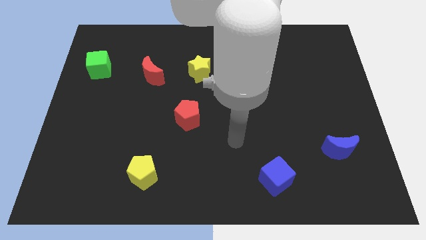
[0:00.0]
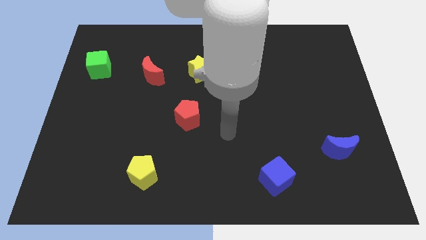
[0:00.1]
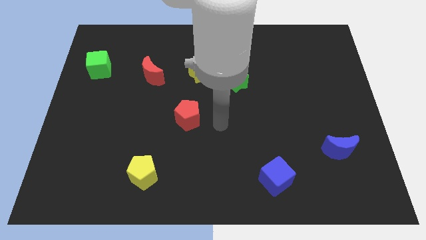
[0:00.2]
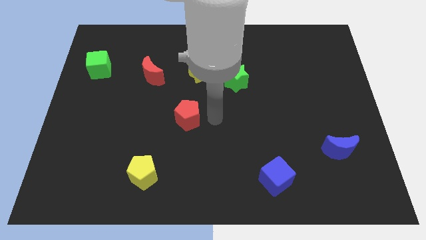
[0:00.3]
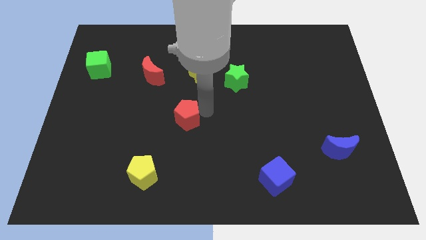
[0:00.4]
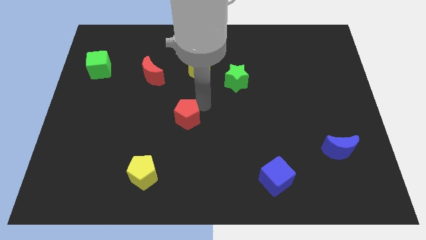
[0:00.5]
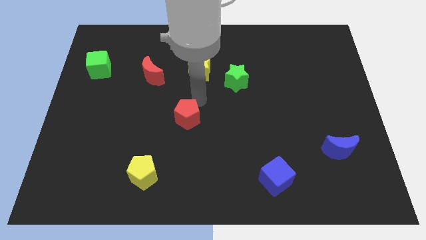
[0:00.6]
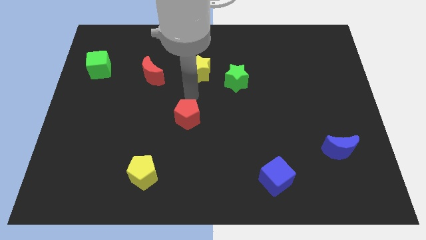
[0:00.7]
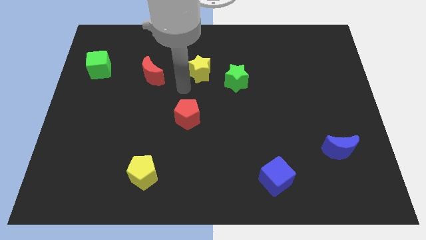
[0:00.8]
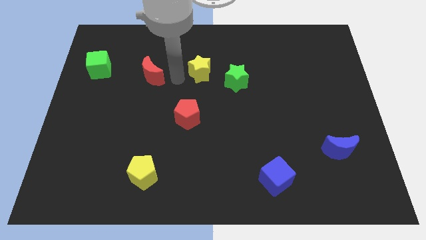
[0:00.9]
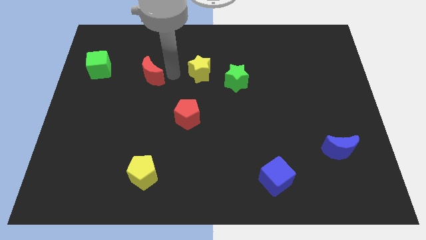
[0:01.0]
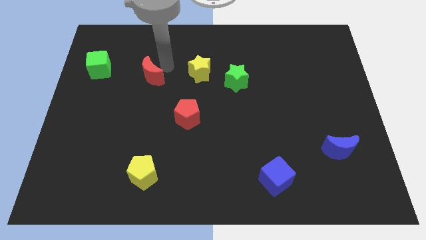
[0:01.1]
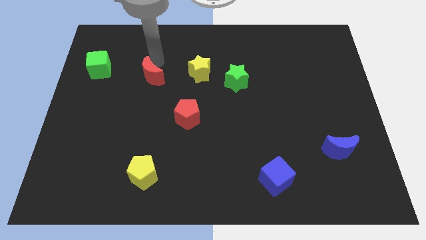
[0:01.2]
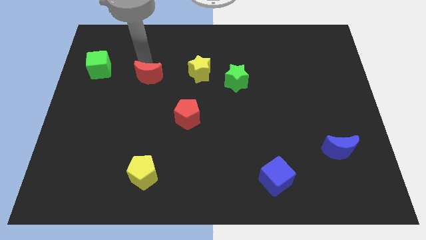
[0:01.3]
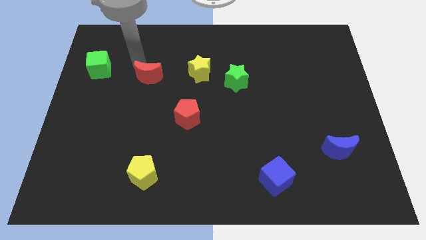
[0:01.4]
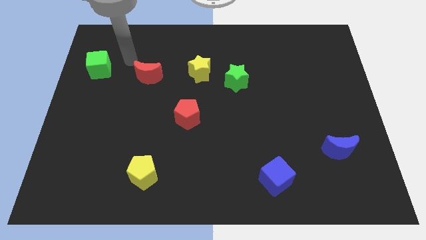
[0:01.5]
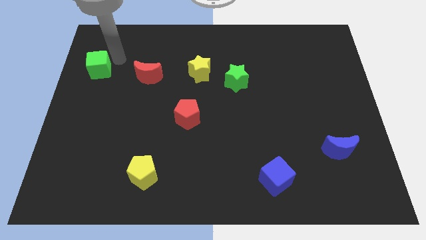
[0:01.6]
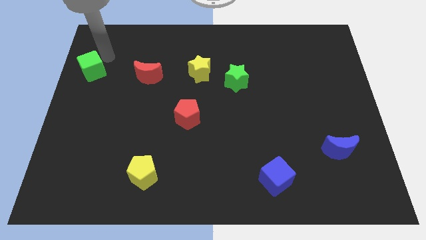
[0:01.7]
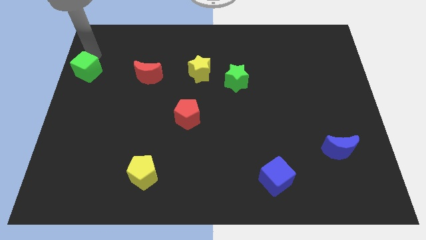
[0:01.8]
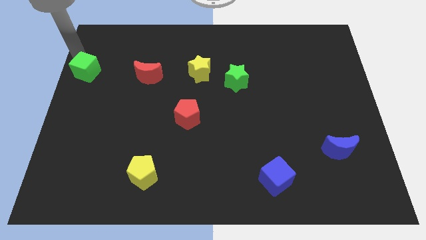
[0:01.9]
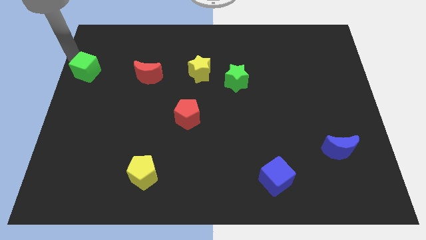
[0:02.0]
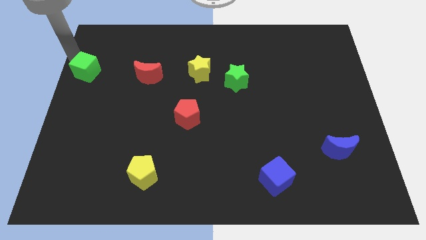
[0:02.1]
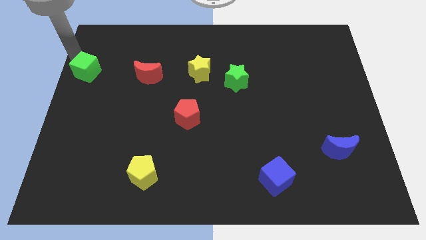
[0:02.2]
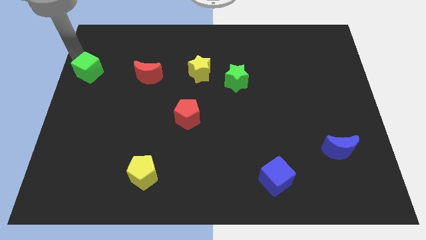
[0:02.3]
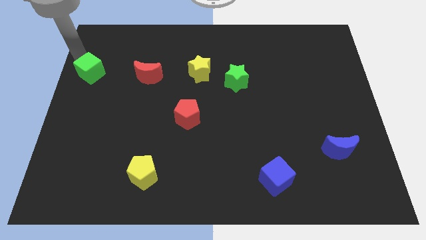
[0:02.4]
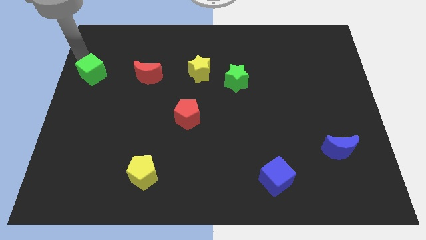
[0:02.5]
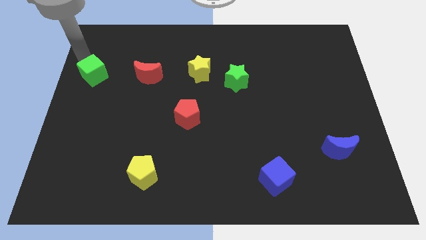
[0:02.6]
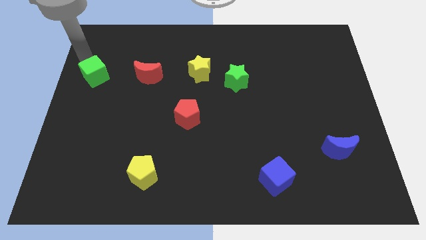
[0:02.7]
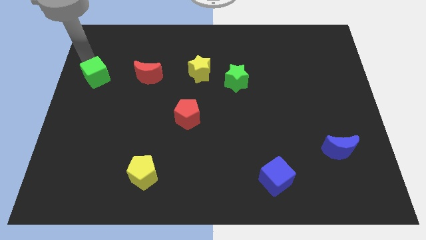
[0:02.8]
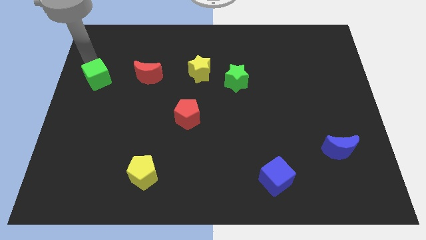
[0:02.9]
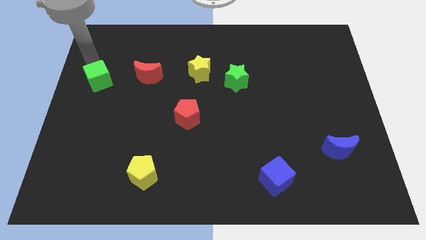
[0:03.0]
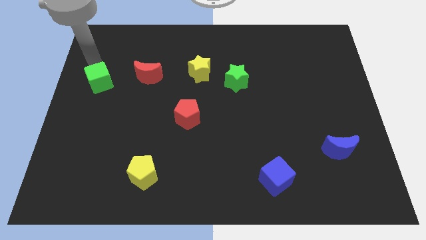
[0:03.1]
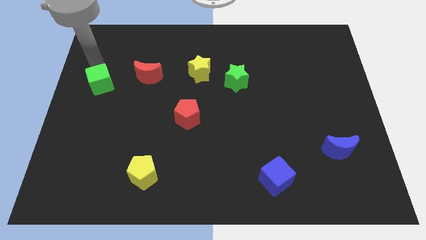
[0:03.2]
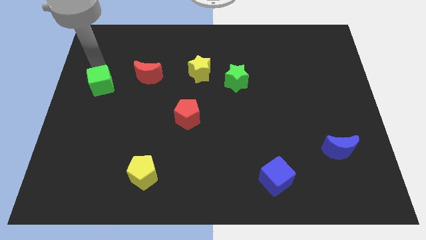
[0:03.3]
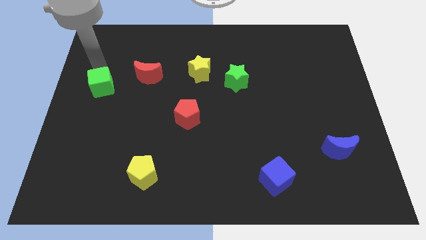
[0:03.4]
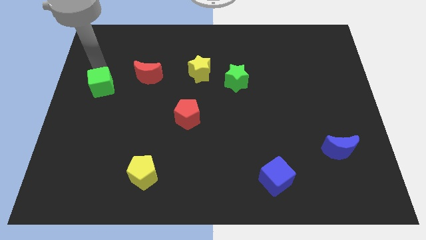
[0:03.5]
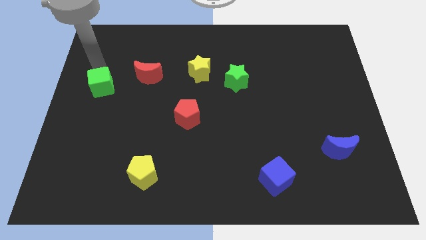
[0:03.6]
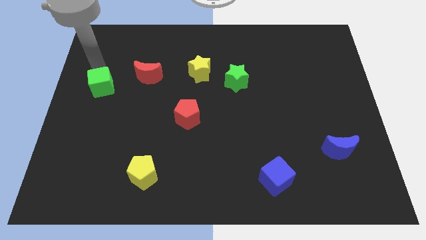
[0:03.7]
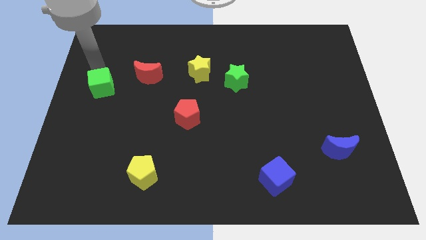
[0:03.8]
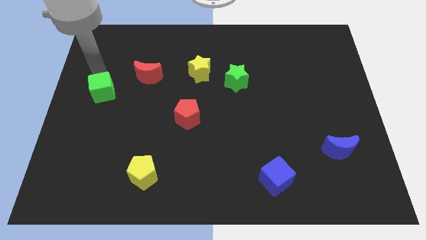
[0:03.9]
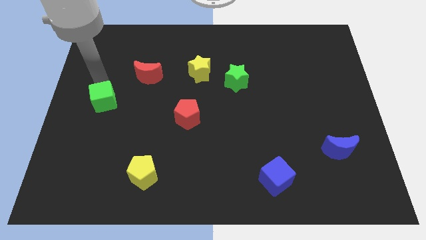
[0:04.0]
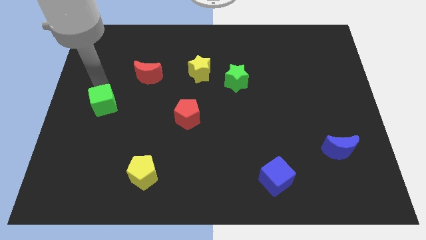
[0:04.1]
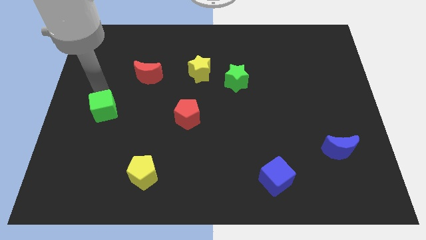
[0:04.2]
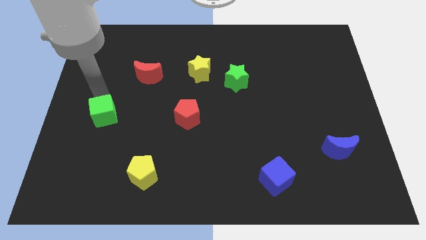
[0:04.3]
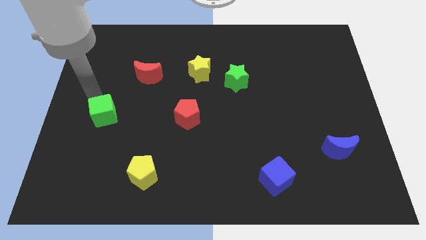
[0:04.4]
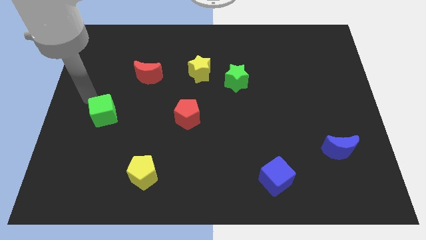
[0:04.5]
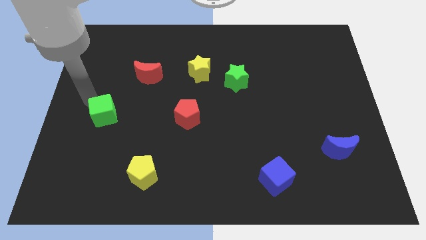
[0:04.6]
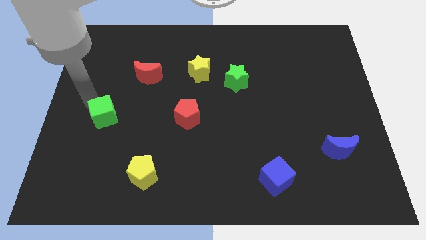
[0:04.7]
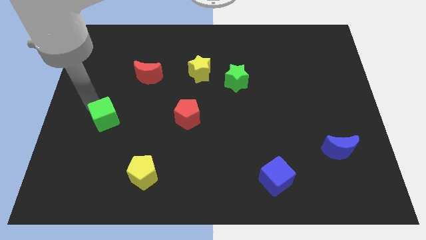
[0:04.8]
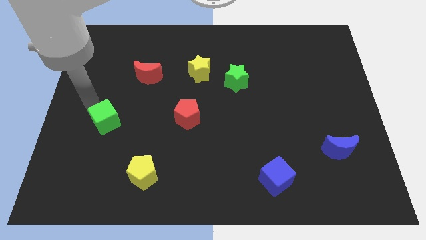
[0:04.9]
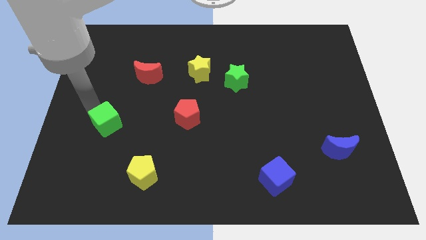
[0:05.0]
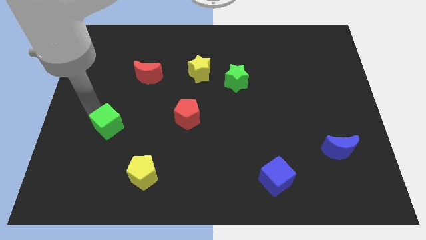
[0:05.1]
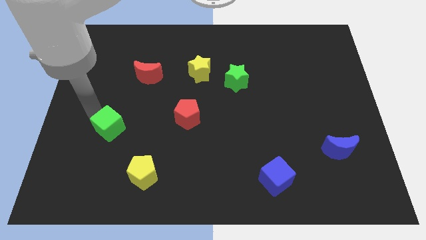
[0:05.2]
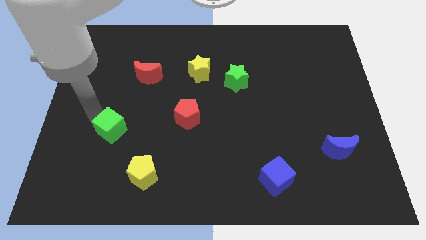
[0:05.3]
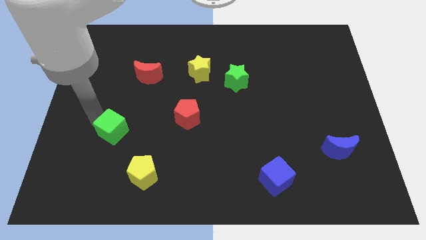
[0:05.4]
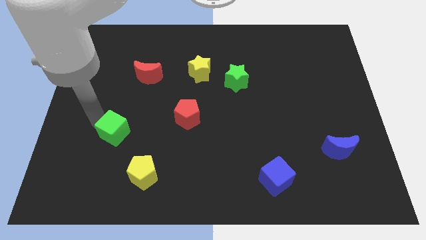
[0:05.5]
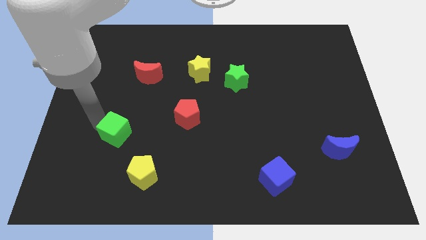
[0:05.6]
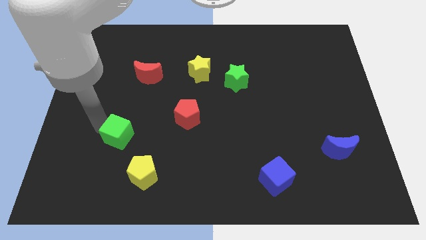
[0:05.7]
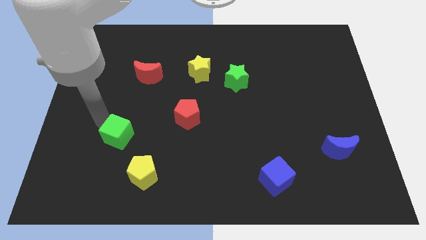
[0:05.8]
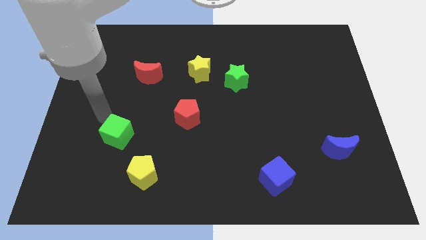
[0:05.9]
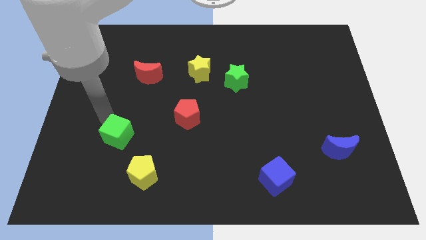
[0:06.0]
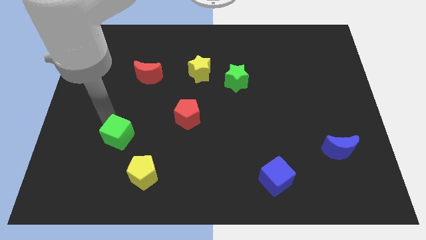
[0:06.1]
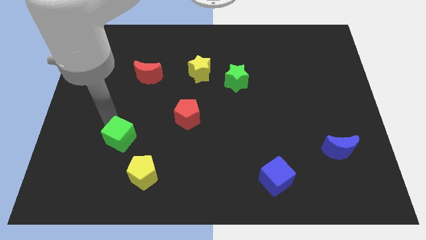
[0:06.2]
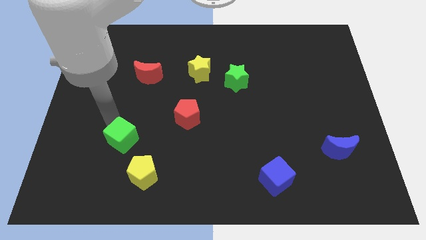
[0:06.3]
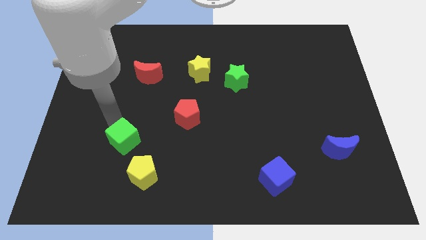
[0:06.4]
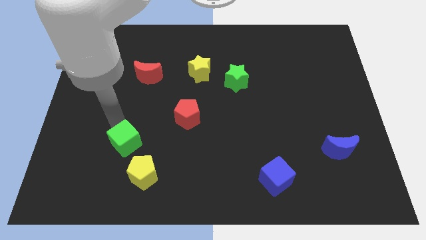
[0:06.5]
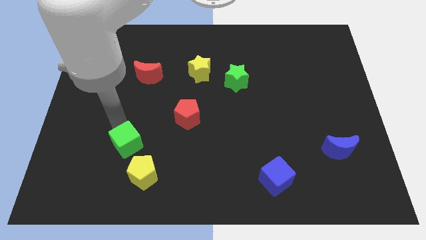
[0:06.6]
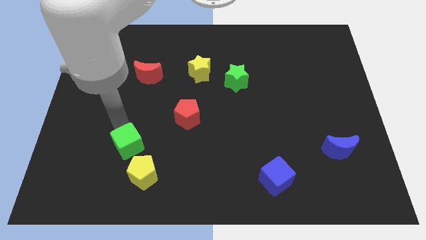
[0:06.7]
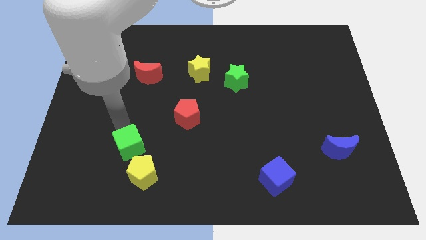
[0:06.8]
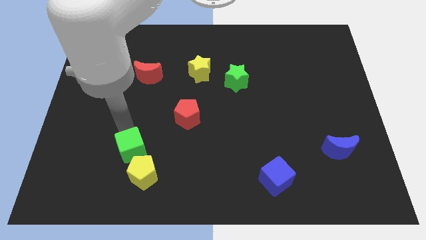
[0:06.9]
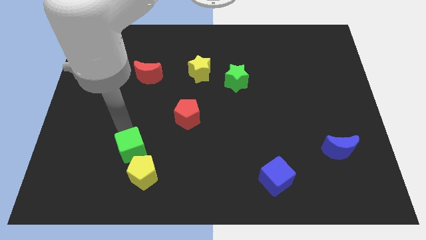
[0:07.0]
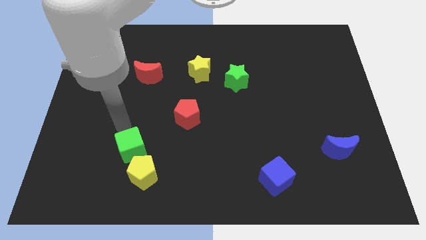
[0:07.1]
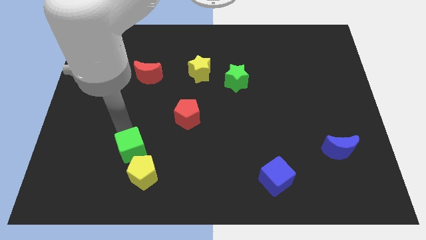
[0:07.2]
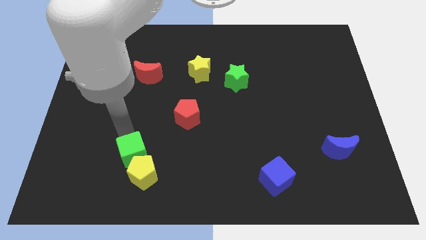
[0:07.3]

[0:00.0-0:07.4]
put the green cube towards the yellow pentagon
